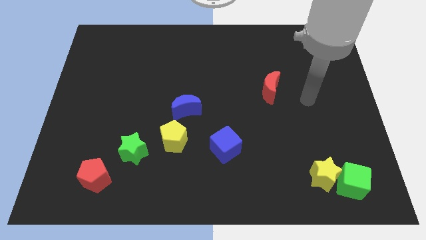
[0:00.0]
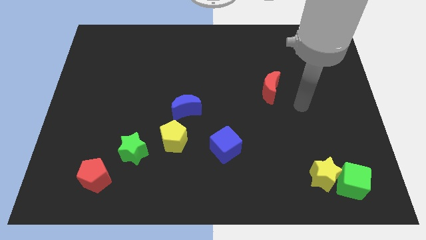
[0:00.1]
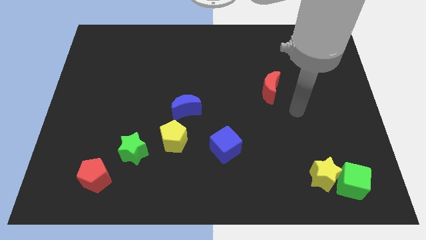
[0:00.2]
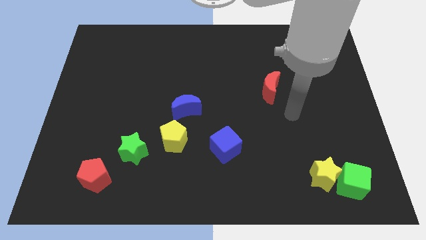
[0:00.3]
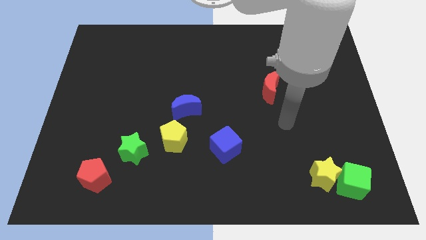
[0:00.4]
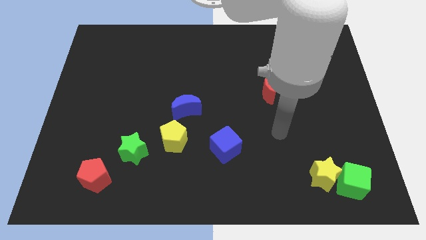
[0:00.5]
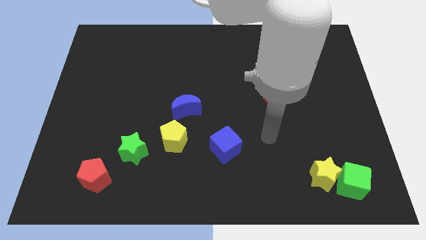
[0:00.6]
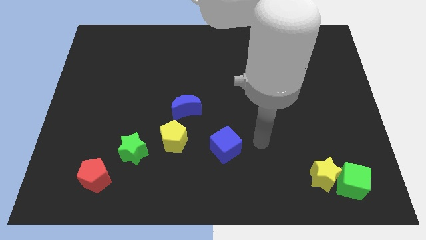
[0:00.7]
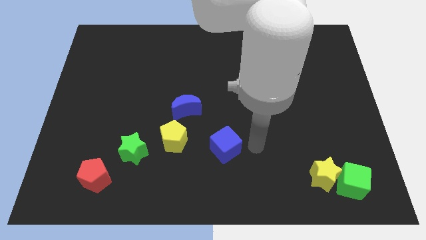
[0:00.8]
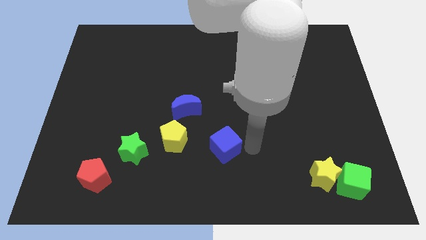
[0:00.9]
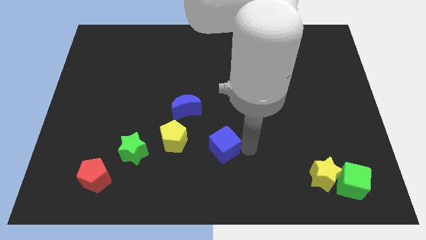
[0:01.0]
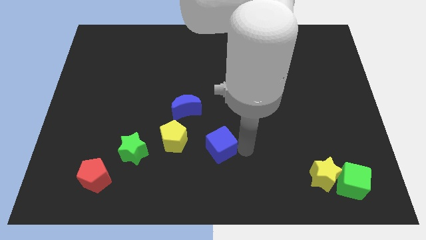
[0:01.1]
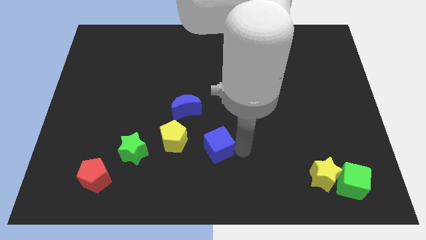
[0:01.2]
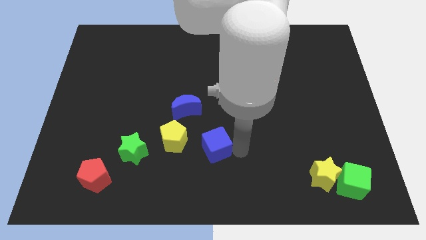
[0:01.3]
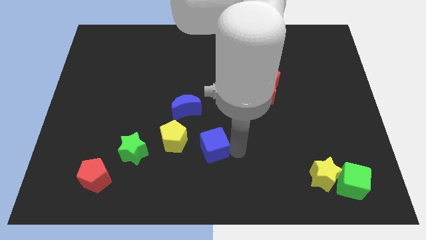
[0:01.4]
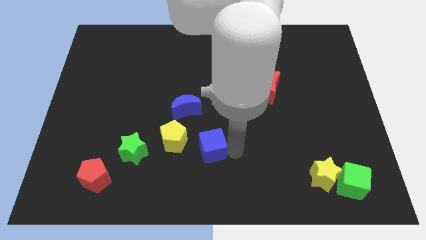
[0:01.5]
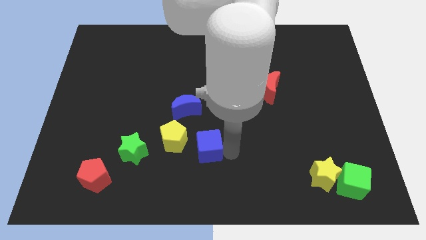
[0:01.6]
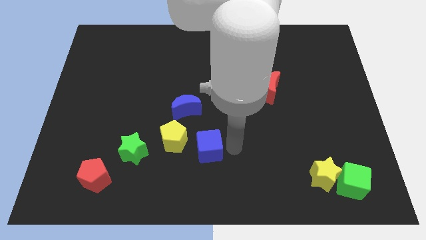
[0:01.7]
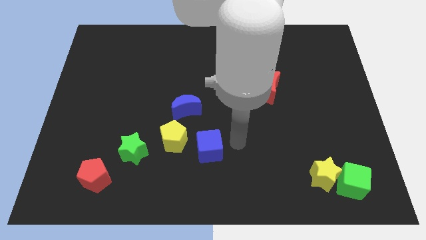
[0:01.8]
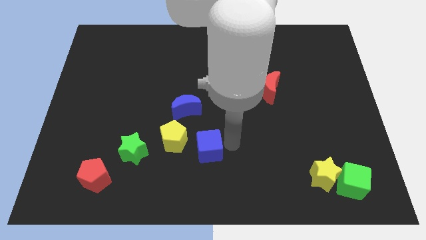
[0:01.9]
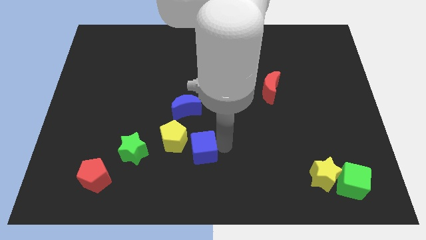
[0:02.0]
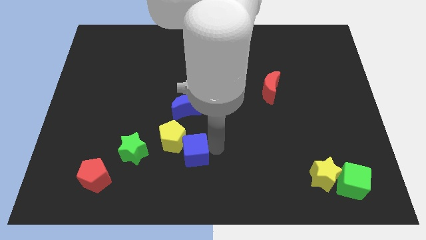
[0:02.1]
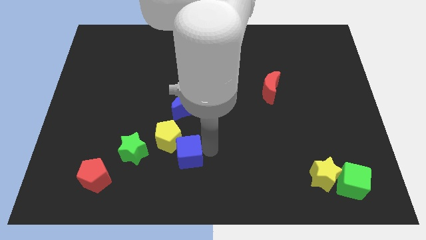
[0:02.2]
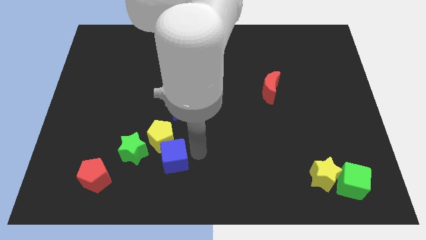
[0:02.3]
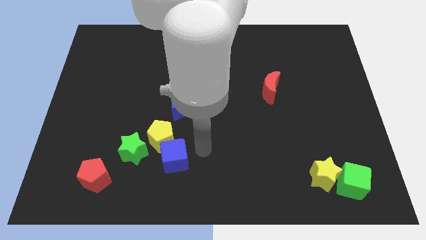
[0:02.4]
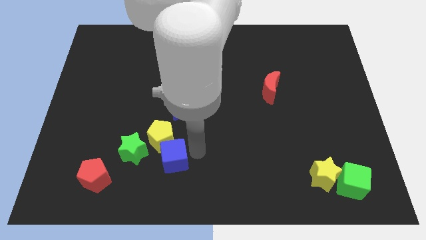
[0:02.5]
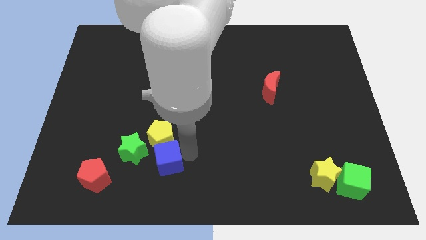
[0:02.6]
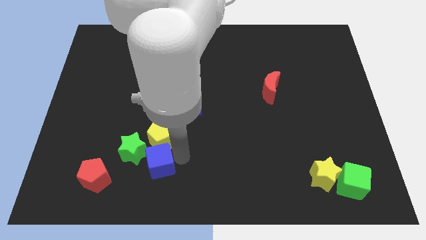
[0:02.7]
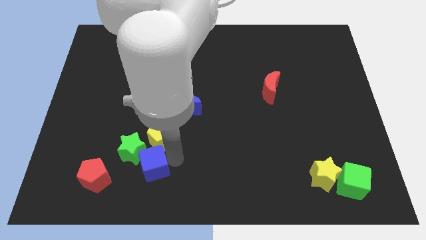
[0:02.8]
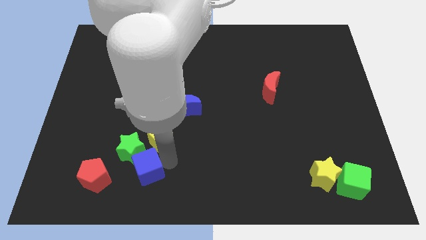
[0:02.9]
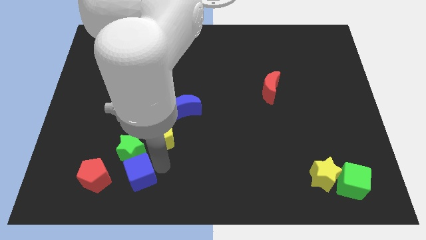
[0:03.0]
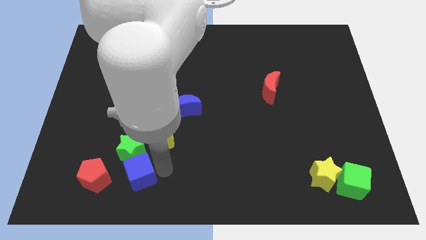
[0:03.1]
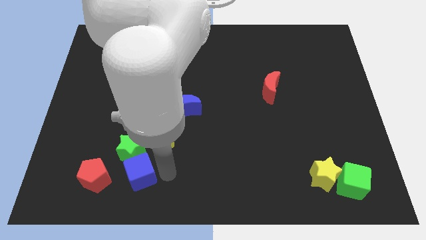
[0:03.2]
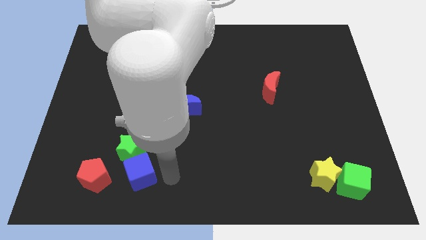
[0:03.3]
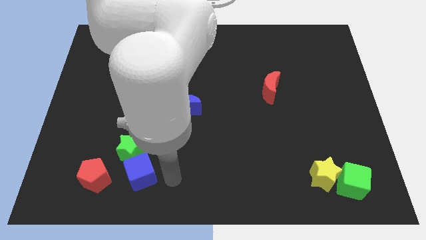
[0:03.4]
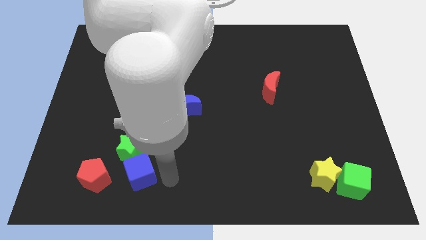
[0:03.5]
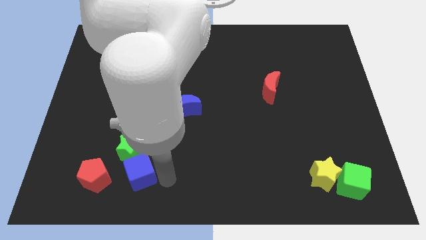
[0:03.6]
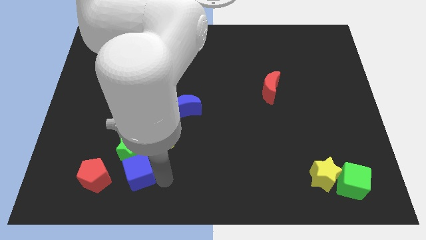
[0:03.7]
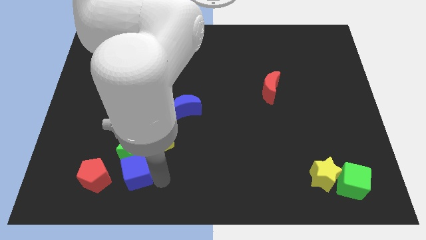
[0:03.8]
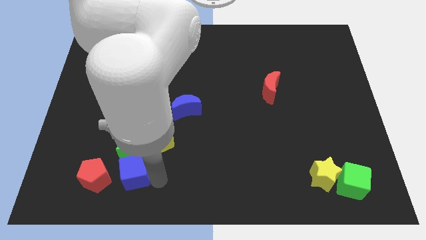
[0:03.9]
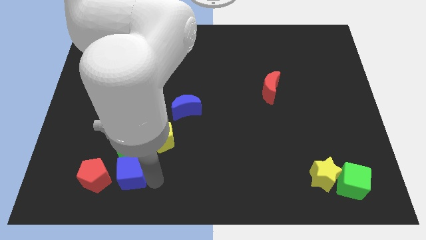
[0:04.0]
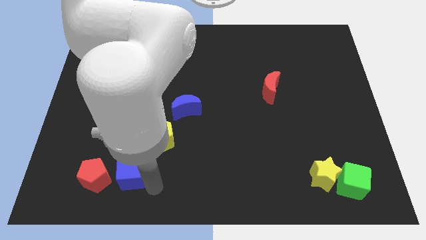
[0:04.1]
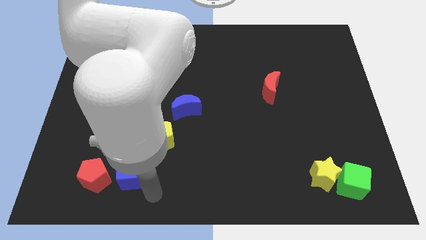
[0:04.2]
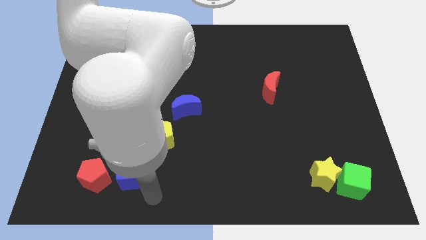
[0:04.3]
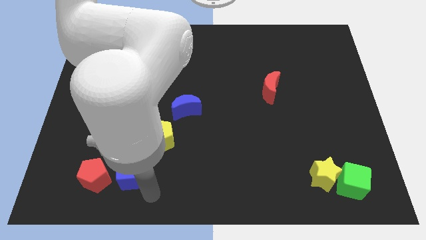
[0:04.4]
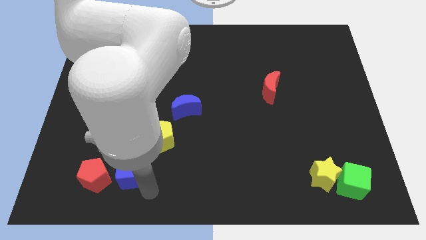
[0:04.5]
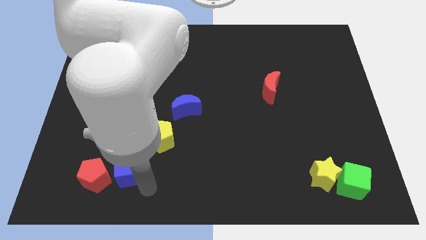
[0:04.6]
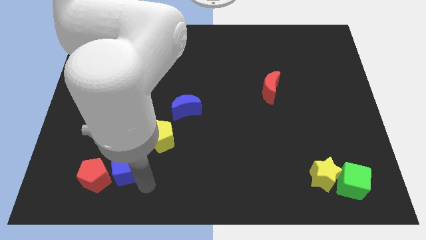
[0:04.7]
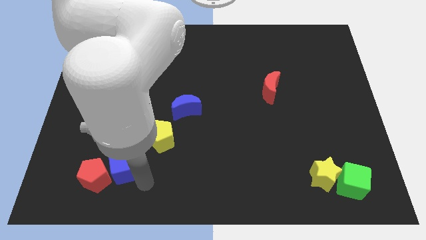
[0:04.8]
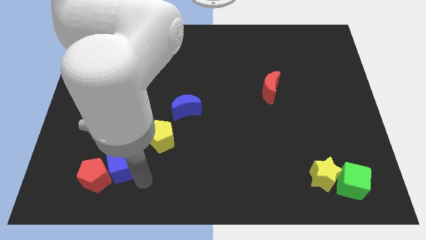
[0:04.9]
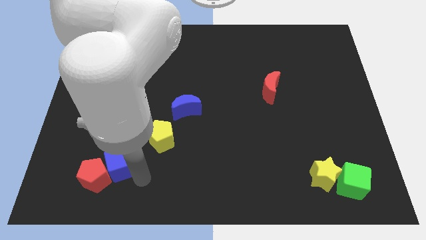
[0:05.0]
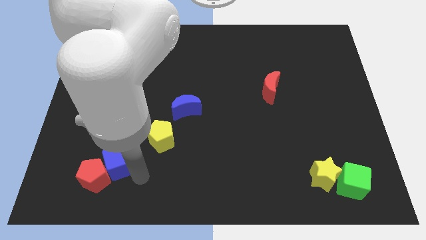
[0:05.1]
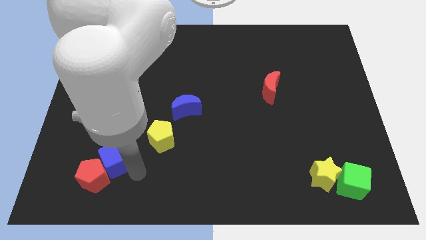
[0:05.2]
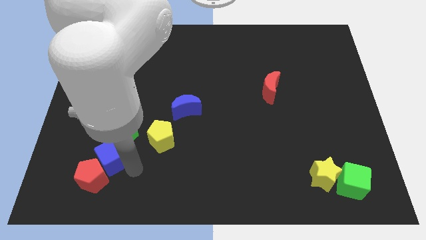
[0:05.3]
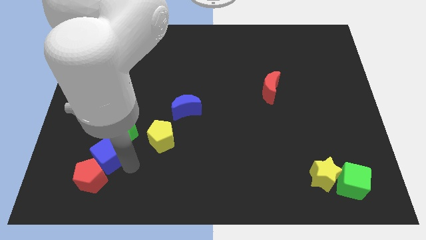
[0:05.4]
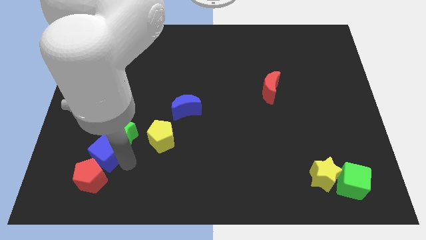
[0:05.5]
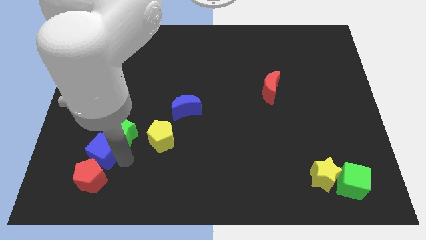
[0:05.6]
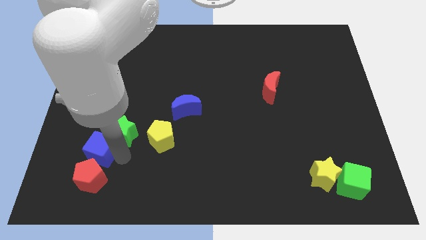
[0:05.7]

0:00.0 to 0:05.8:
slide the blue cube just left of the green star

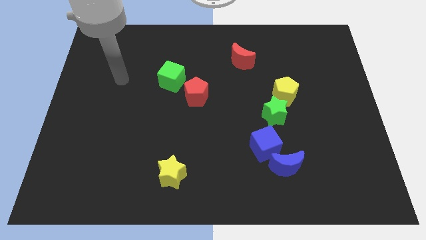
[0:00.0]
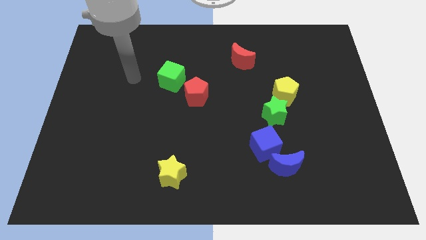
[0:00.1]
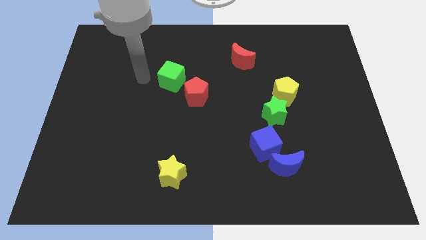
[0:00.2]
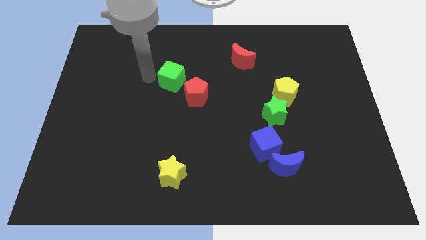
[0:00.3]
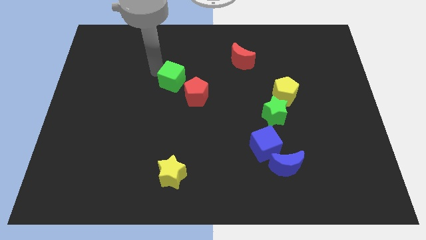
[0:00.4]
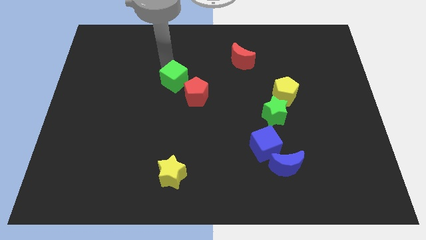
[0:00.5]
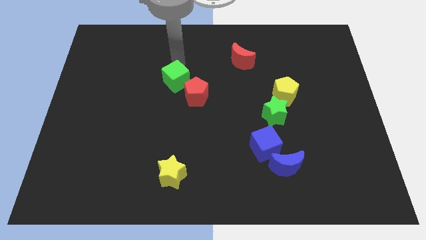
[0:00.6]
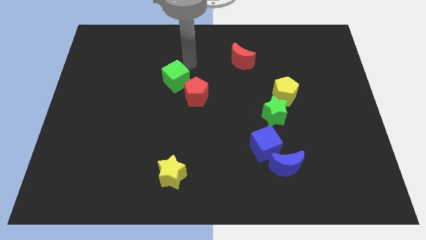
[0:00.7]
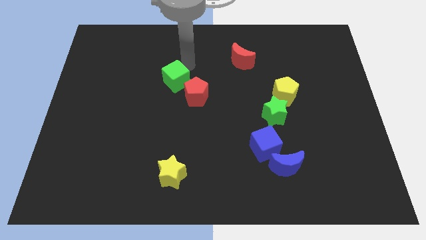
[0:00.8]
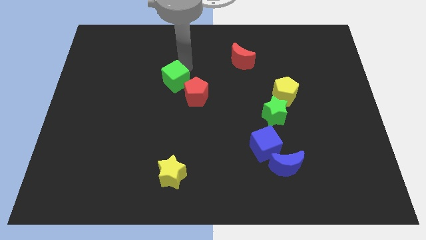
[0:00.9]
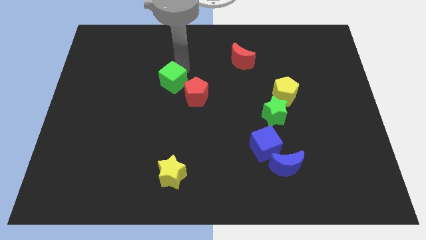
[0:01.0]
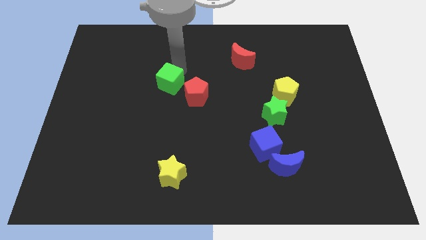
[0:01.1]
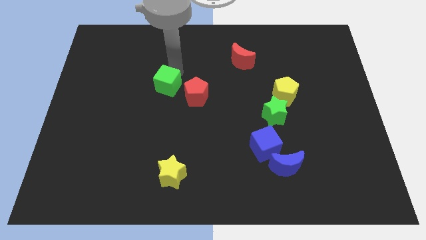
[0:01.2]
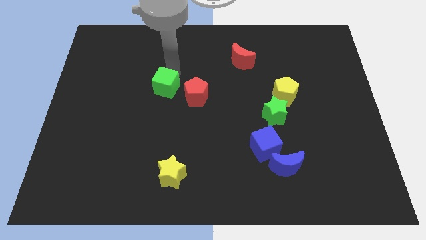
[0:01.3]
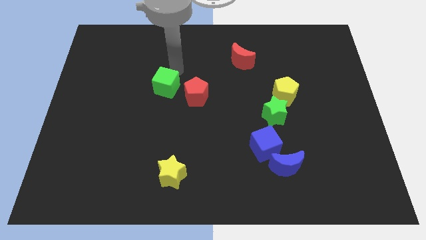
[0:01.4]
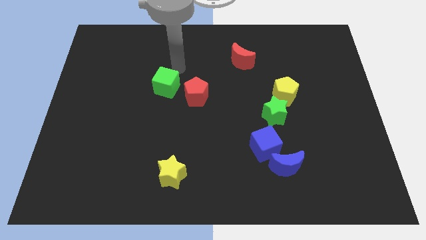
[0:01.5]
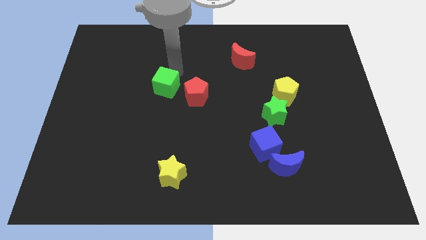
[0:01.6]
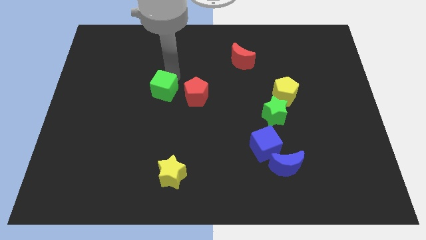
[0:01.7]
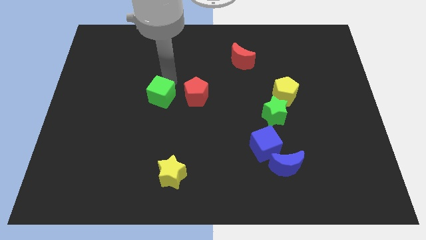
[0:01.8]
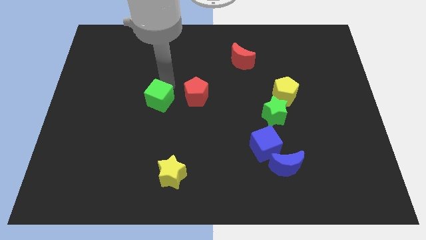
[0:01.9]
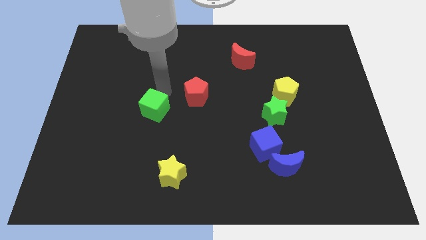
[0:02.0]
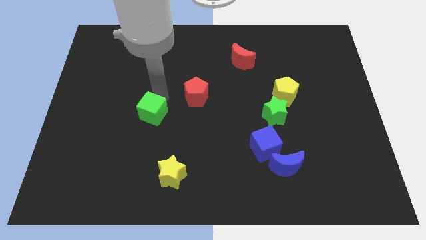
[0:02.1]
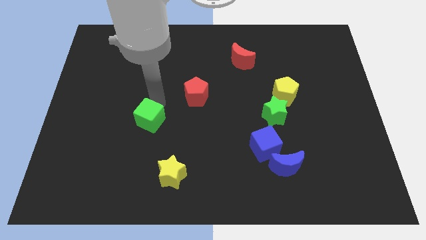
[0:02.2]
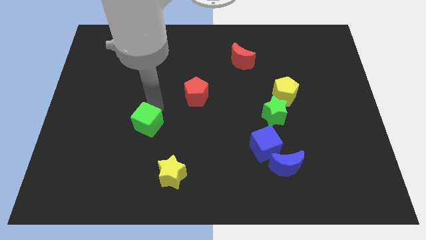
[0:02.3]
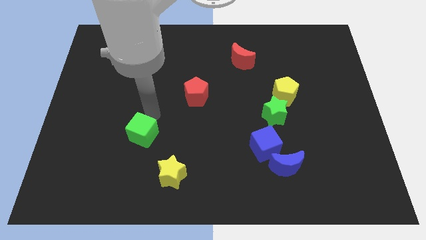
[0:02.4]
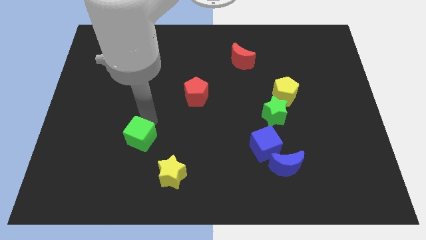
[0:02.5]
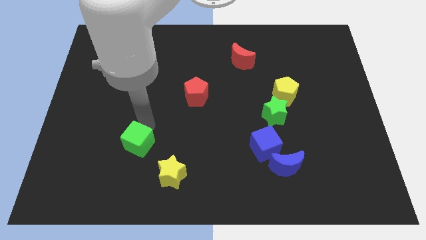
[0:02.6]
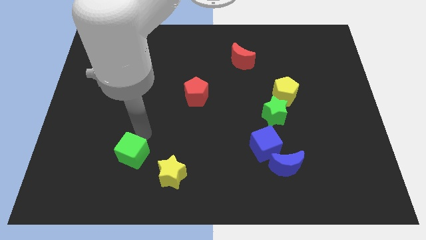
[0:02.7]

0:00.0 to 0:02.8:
push the green cube to the left of the yellow star
